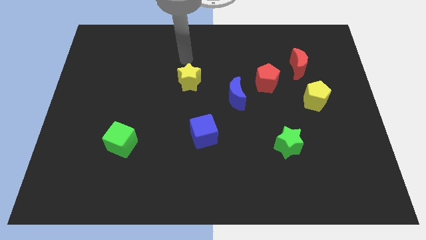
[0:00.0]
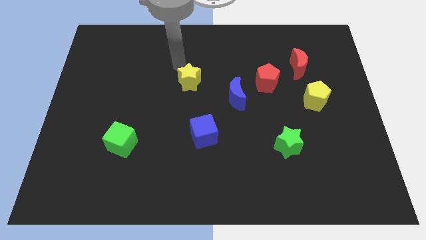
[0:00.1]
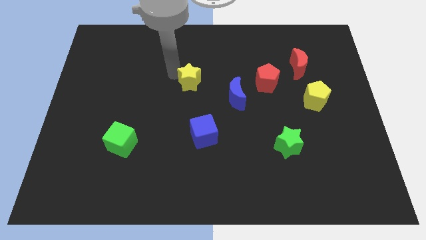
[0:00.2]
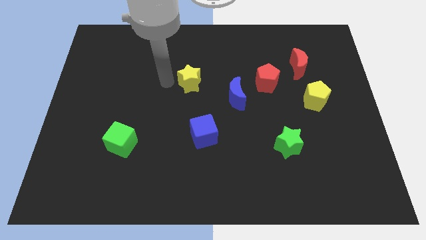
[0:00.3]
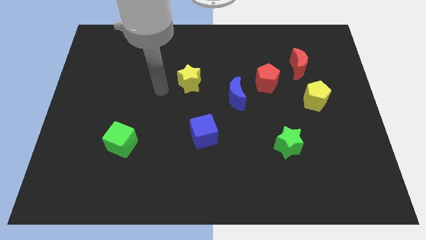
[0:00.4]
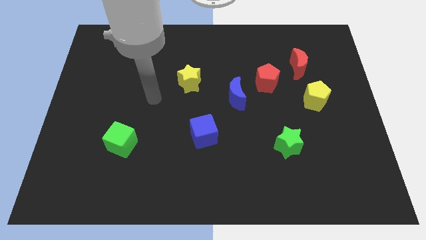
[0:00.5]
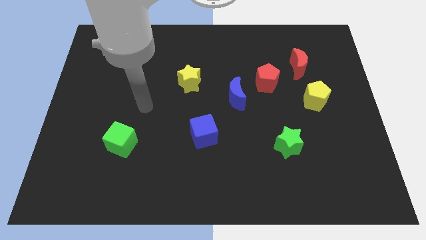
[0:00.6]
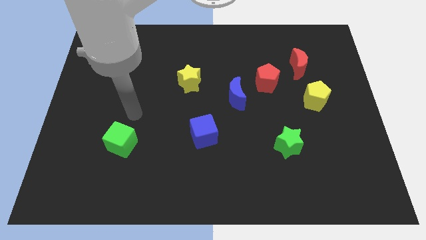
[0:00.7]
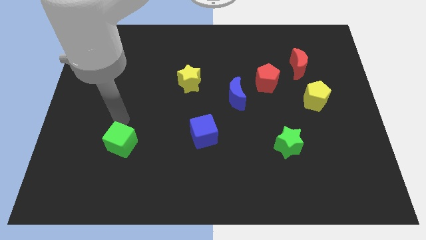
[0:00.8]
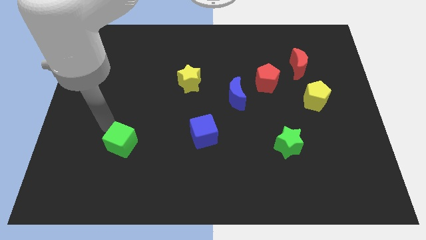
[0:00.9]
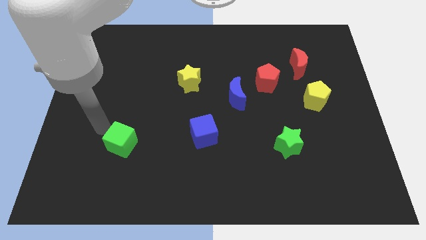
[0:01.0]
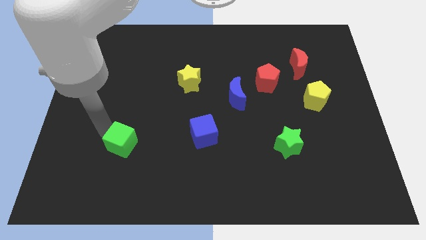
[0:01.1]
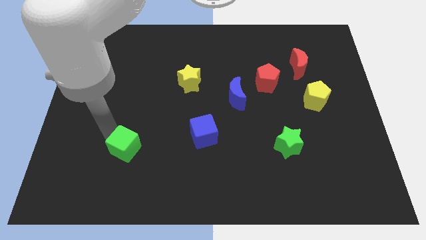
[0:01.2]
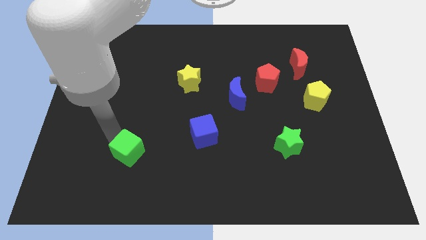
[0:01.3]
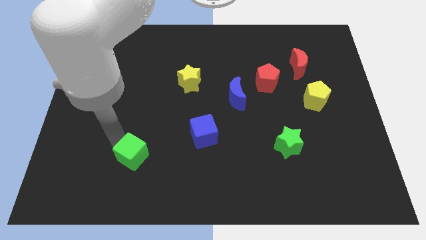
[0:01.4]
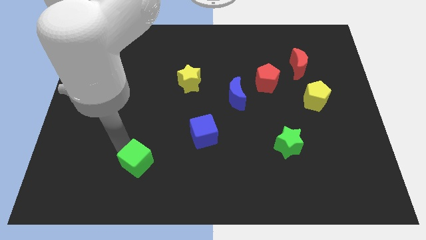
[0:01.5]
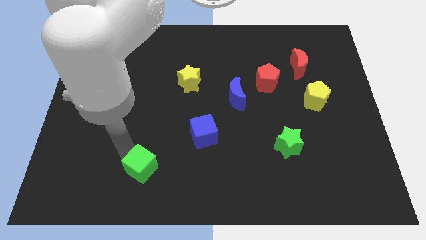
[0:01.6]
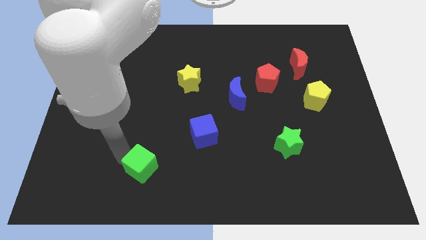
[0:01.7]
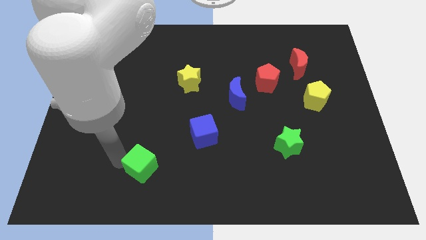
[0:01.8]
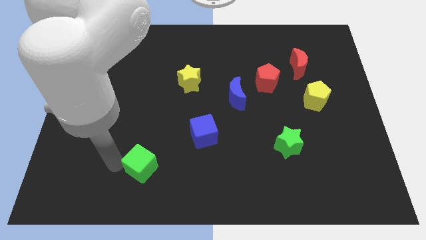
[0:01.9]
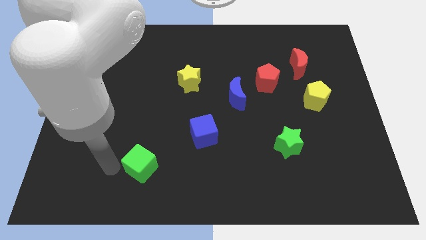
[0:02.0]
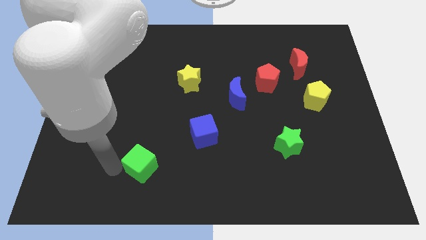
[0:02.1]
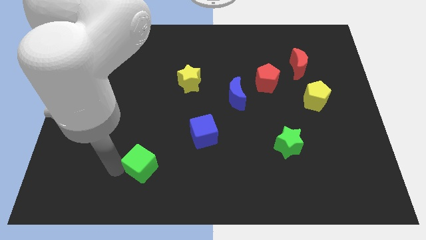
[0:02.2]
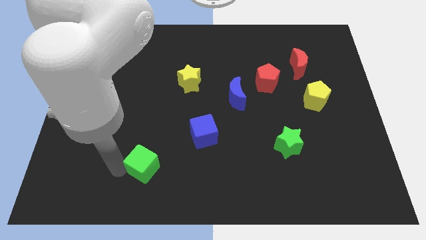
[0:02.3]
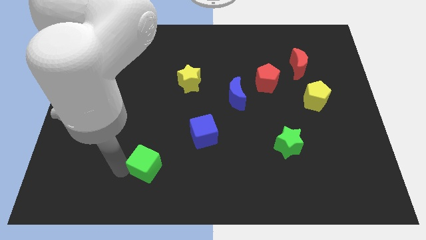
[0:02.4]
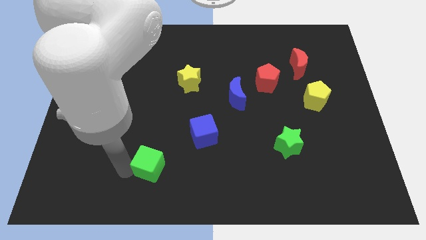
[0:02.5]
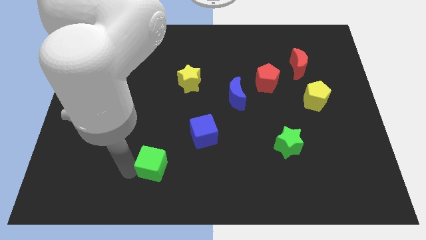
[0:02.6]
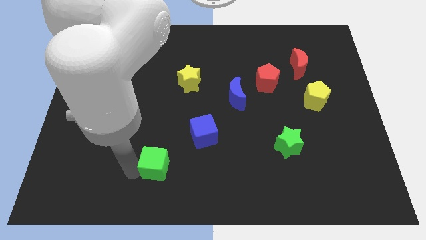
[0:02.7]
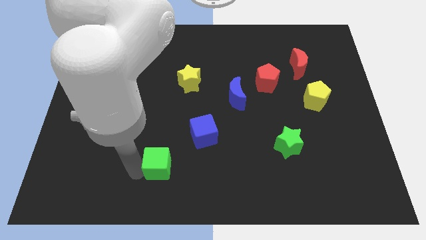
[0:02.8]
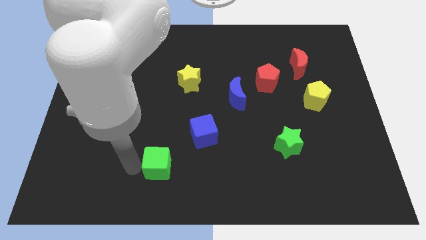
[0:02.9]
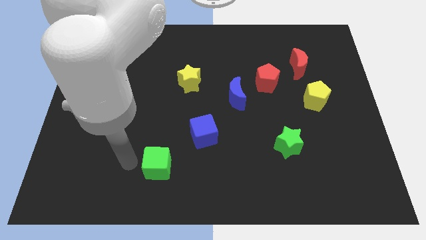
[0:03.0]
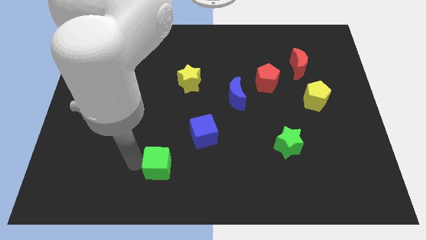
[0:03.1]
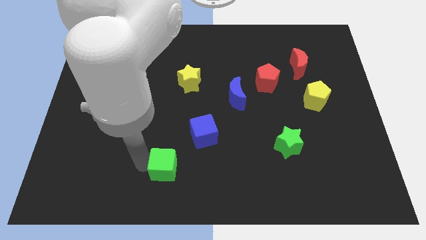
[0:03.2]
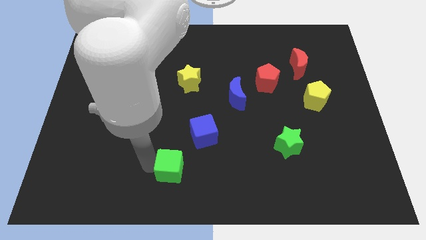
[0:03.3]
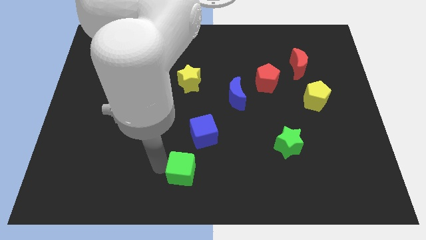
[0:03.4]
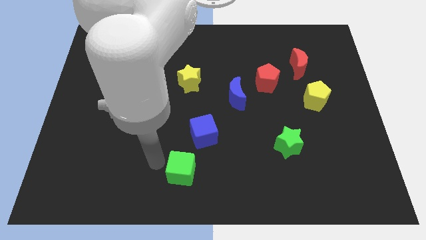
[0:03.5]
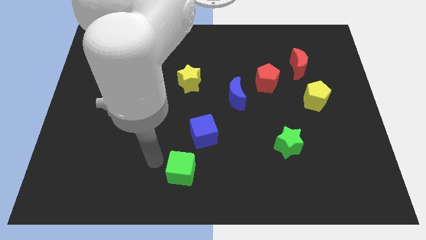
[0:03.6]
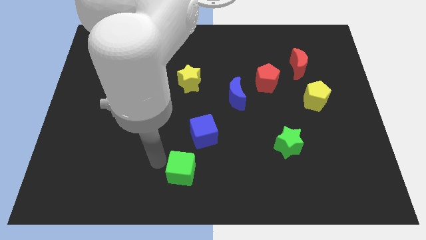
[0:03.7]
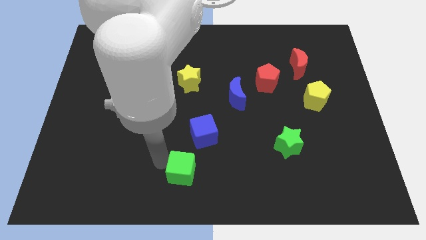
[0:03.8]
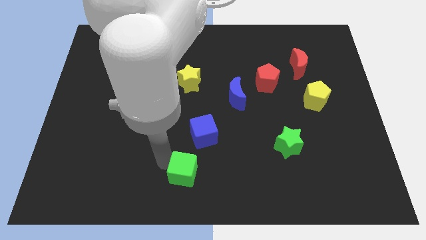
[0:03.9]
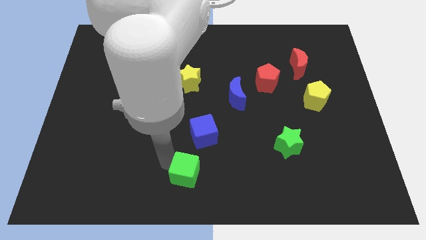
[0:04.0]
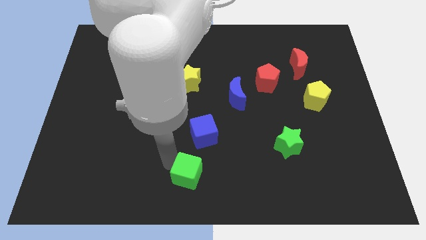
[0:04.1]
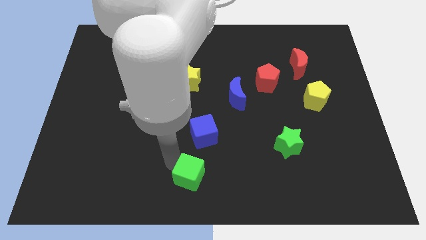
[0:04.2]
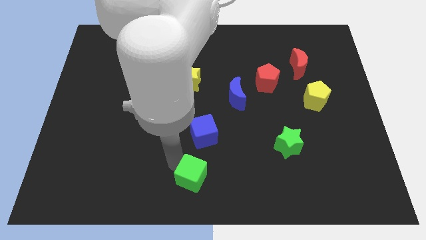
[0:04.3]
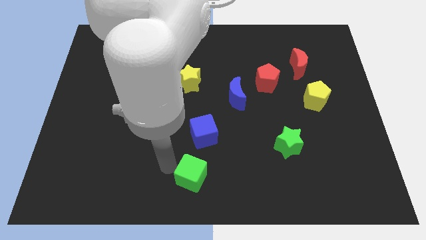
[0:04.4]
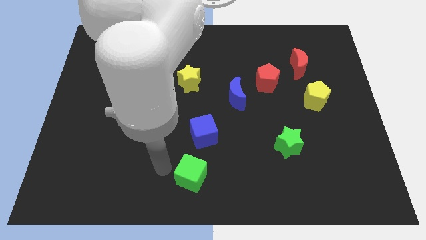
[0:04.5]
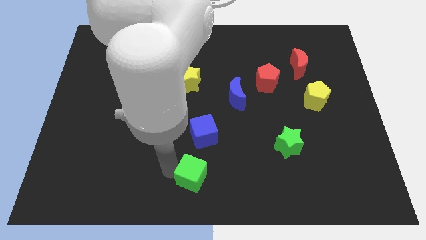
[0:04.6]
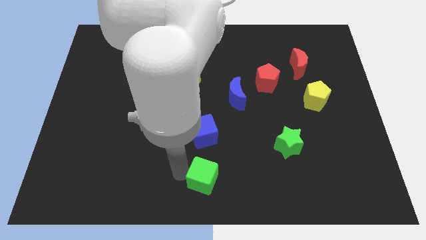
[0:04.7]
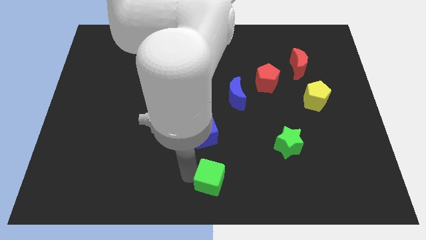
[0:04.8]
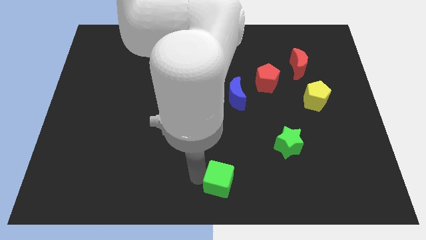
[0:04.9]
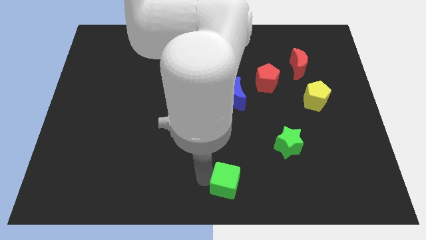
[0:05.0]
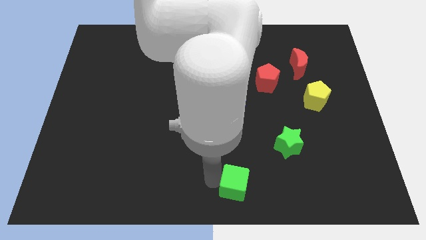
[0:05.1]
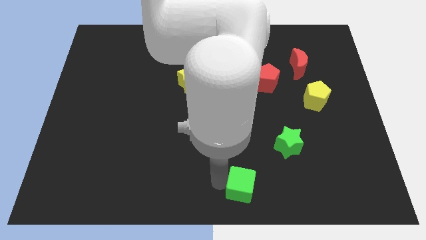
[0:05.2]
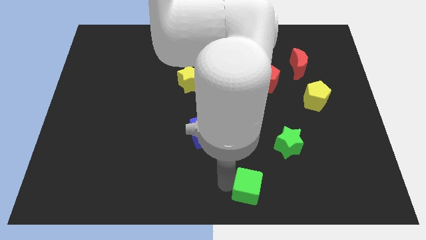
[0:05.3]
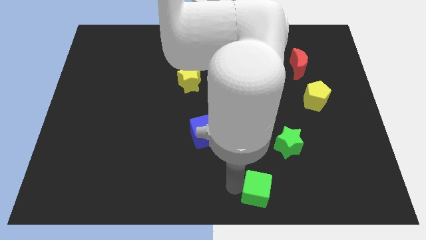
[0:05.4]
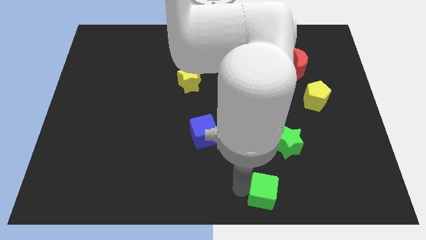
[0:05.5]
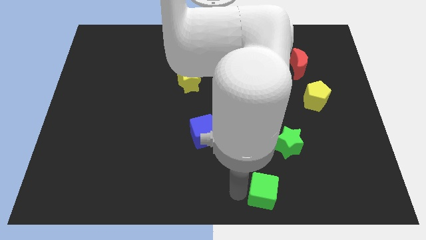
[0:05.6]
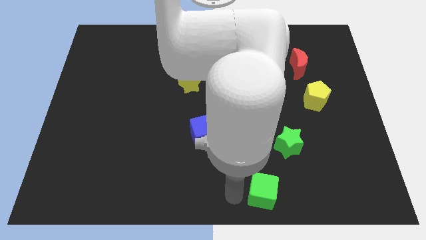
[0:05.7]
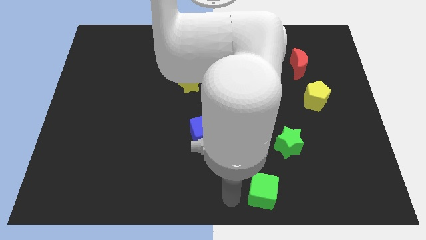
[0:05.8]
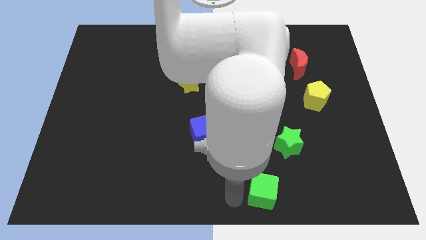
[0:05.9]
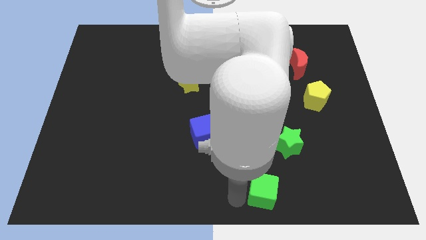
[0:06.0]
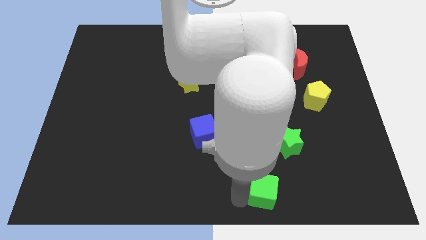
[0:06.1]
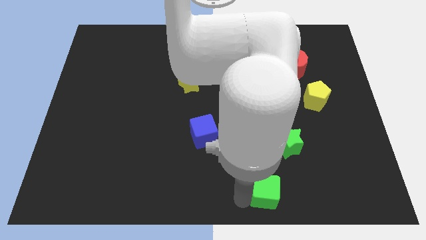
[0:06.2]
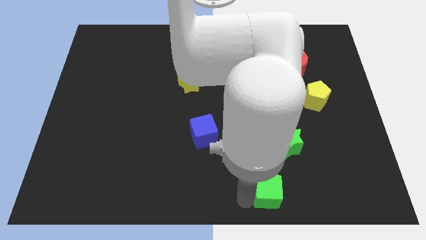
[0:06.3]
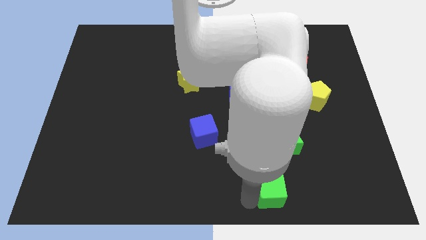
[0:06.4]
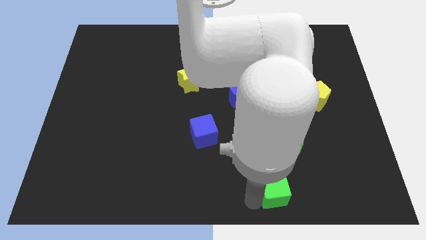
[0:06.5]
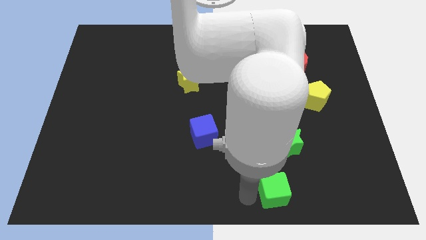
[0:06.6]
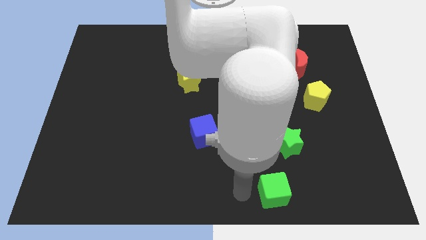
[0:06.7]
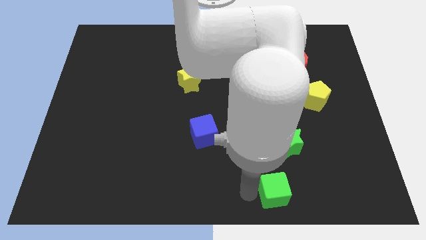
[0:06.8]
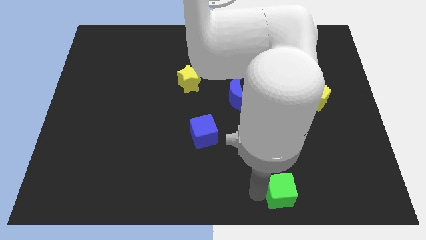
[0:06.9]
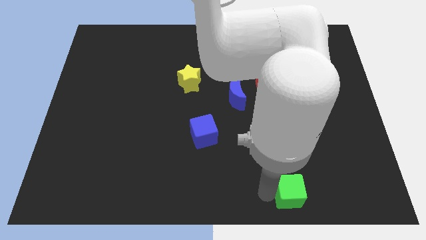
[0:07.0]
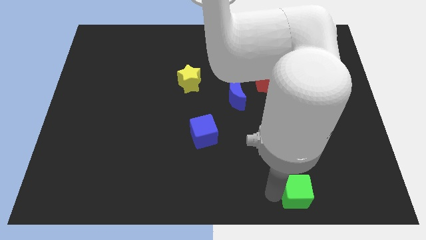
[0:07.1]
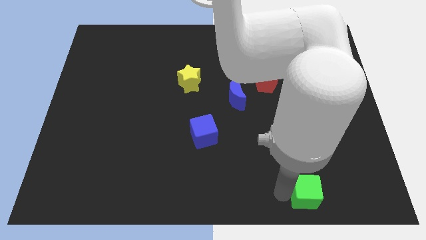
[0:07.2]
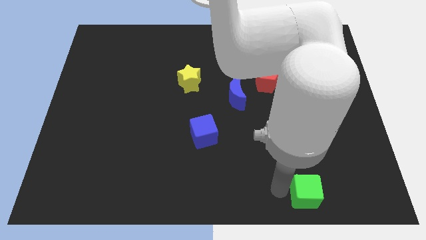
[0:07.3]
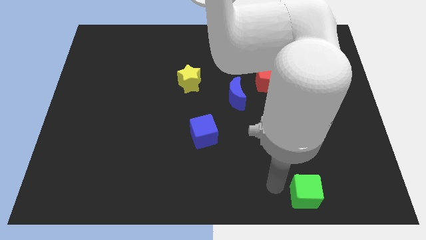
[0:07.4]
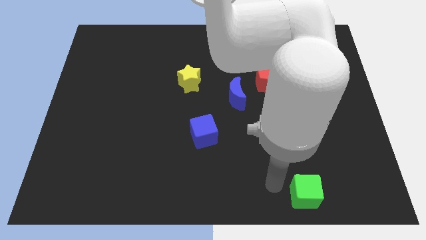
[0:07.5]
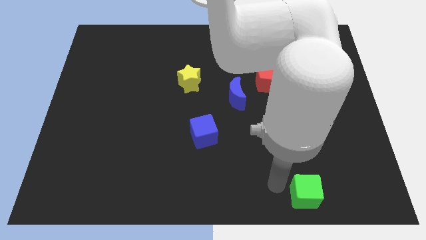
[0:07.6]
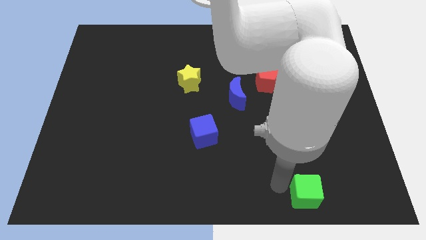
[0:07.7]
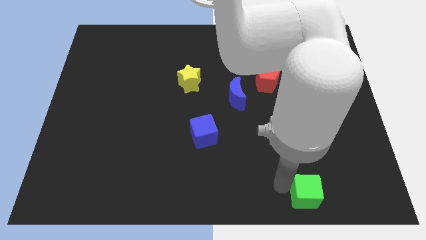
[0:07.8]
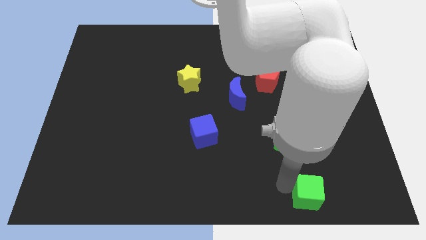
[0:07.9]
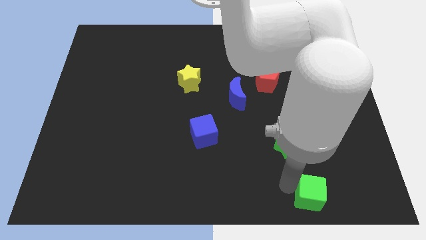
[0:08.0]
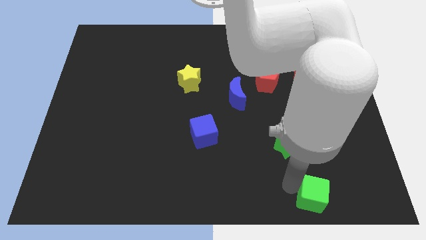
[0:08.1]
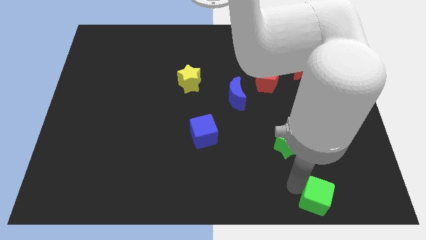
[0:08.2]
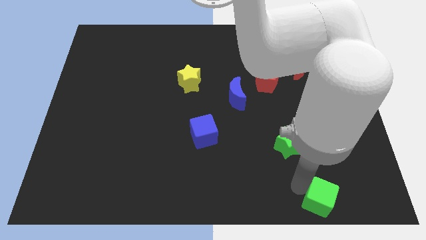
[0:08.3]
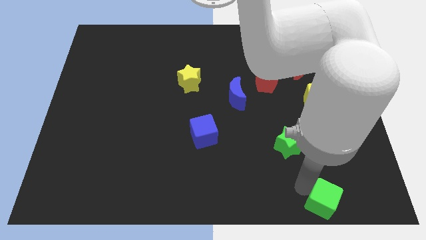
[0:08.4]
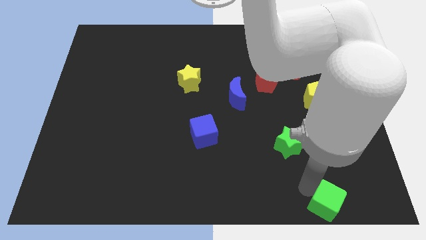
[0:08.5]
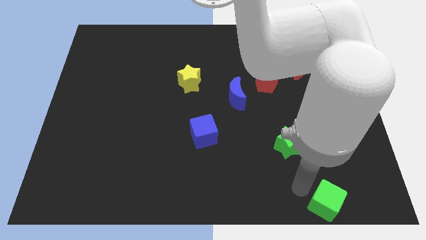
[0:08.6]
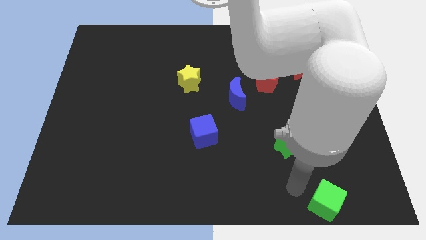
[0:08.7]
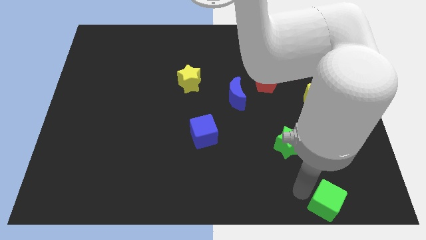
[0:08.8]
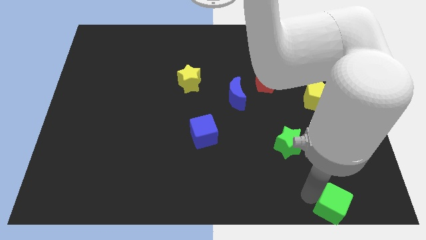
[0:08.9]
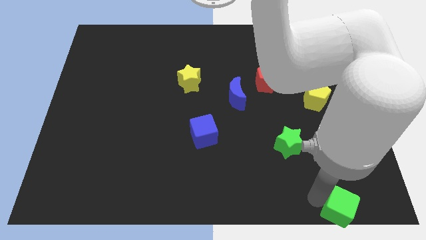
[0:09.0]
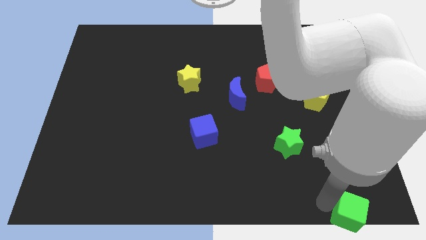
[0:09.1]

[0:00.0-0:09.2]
move the green cube to the bottom right
